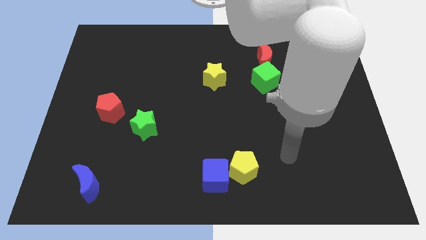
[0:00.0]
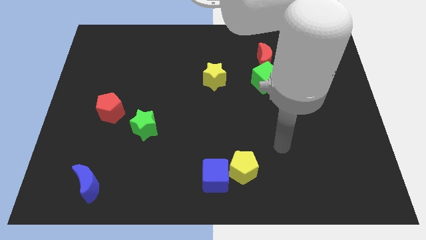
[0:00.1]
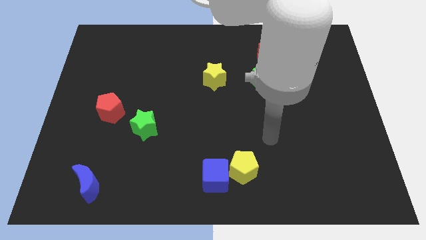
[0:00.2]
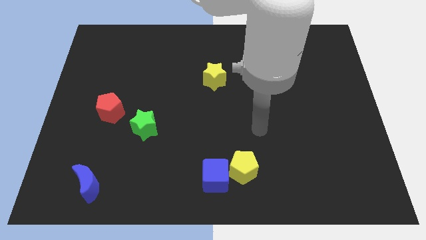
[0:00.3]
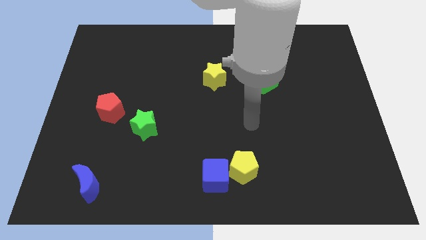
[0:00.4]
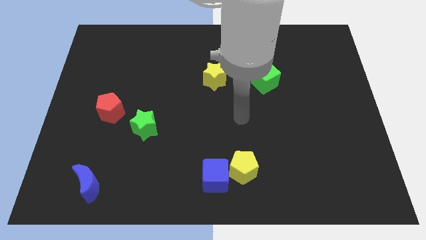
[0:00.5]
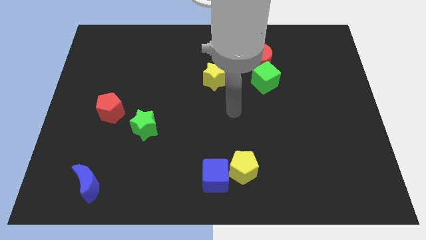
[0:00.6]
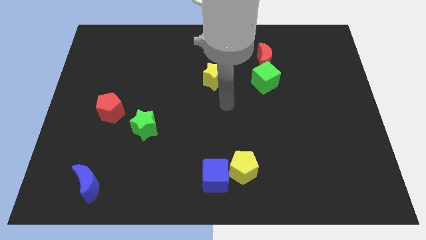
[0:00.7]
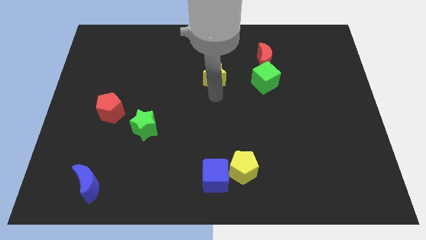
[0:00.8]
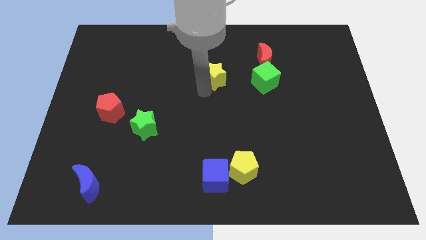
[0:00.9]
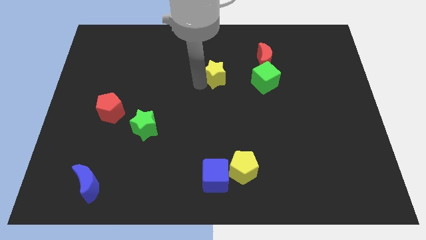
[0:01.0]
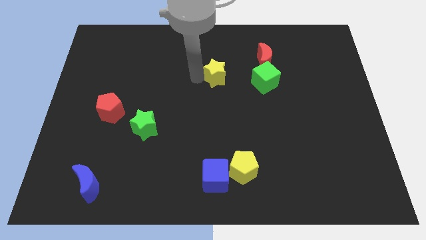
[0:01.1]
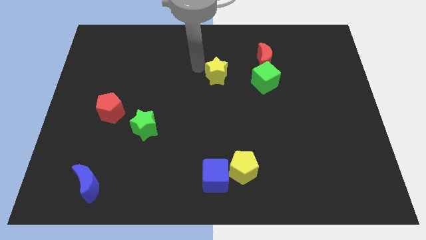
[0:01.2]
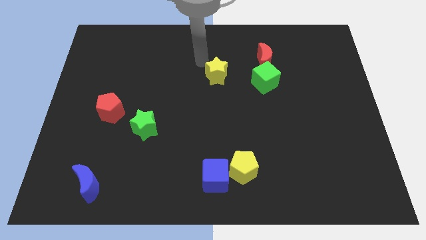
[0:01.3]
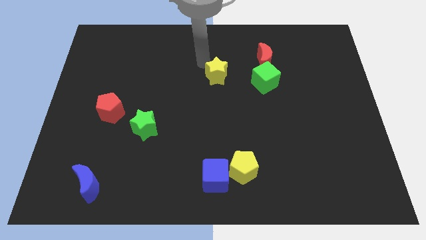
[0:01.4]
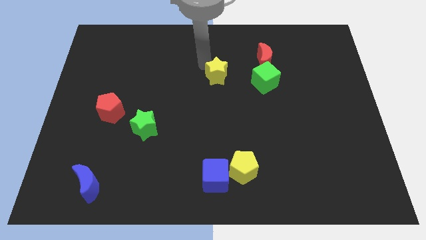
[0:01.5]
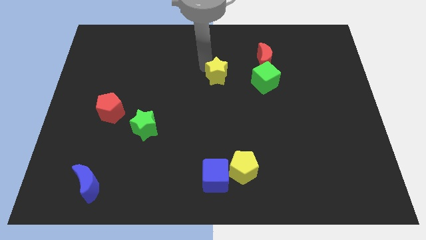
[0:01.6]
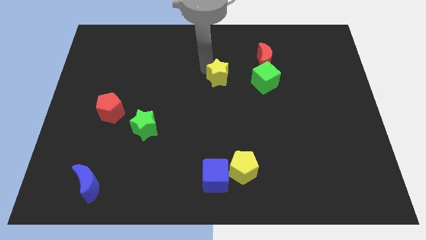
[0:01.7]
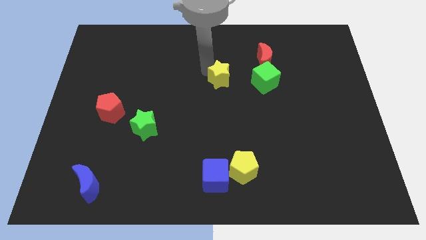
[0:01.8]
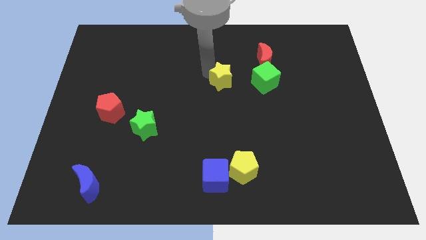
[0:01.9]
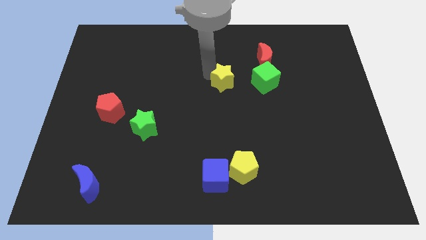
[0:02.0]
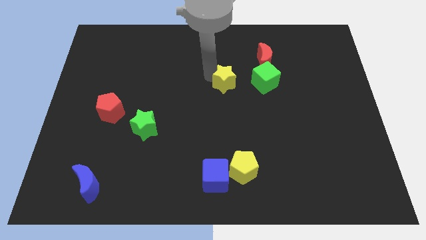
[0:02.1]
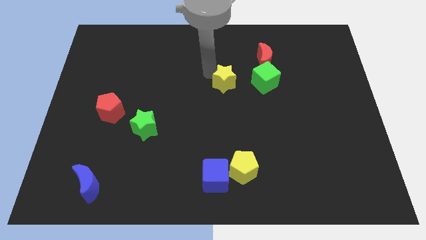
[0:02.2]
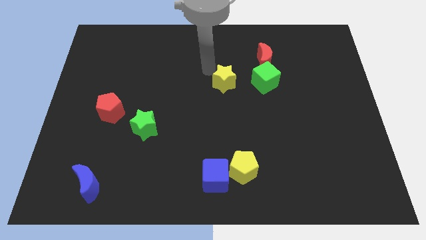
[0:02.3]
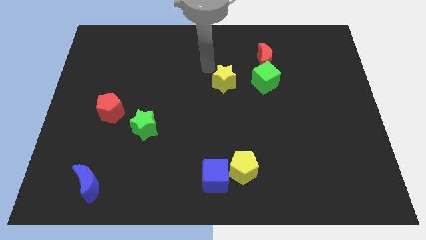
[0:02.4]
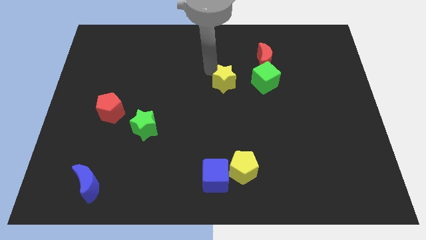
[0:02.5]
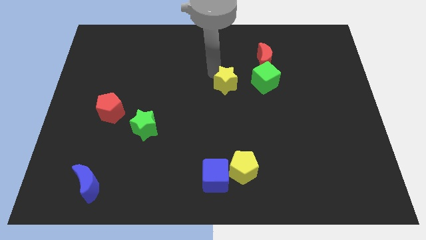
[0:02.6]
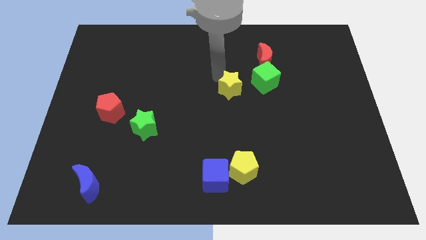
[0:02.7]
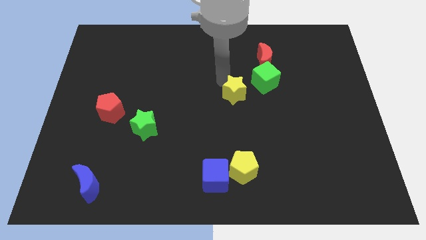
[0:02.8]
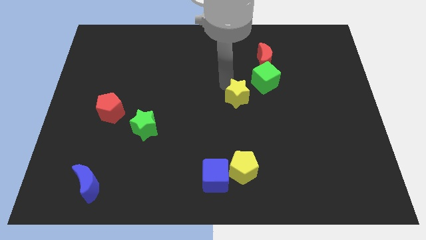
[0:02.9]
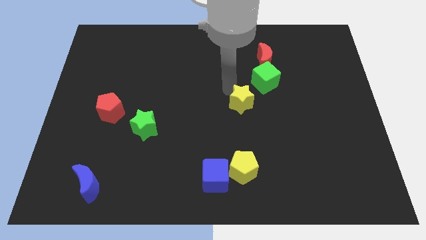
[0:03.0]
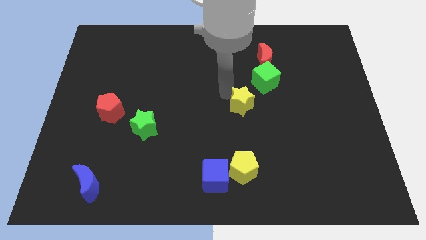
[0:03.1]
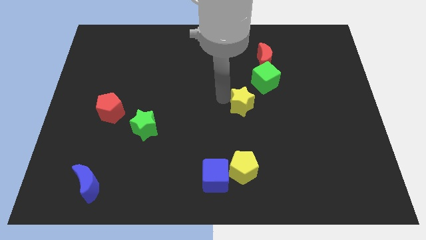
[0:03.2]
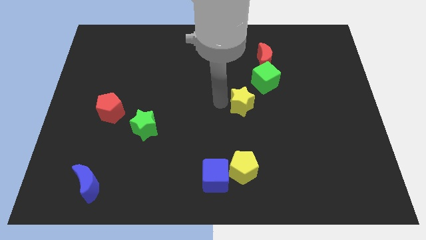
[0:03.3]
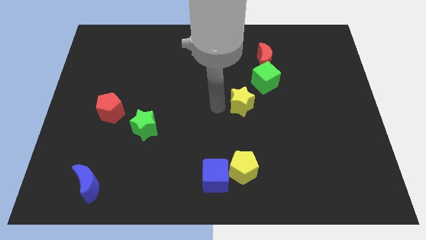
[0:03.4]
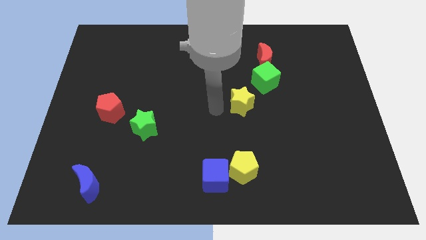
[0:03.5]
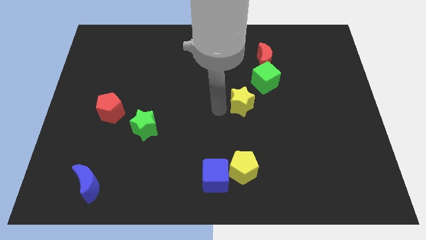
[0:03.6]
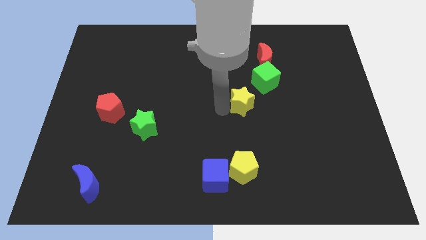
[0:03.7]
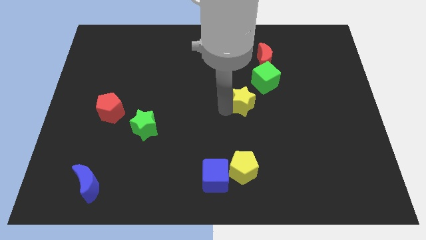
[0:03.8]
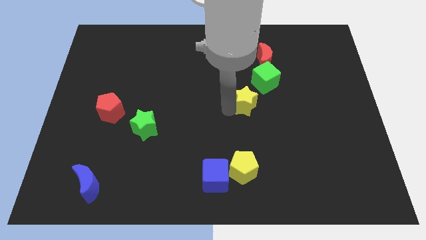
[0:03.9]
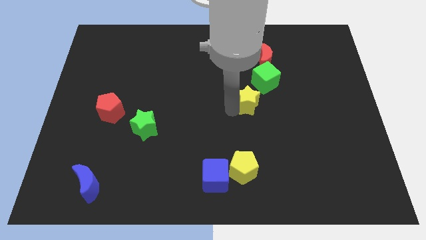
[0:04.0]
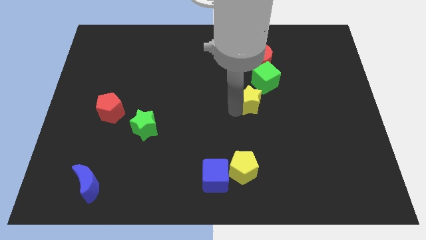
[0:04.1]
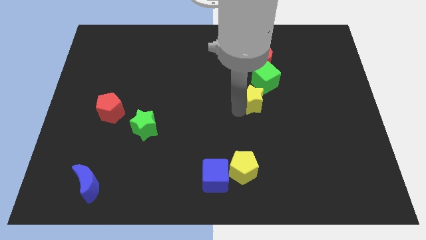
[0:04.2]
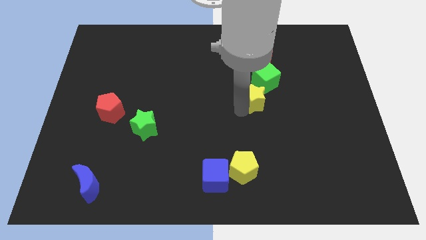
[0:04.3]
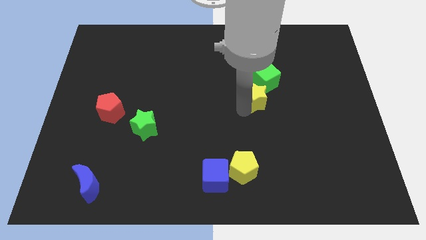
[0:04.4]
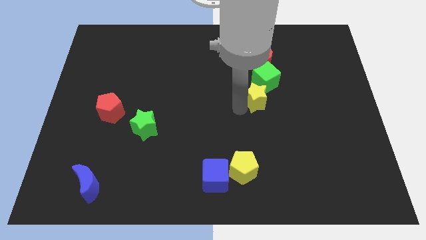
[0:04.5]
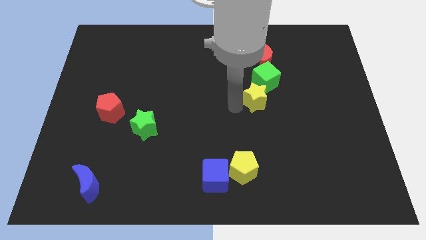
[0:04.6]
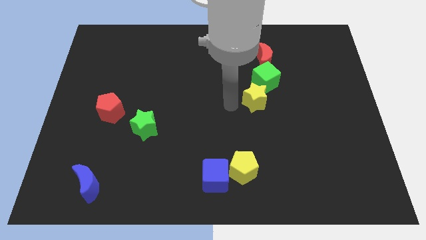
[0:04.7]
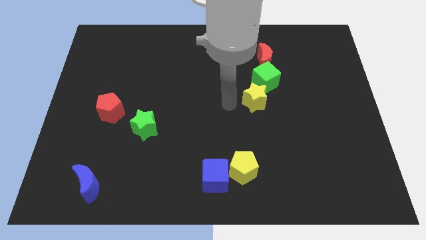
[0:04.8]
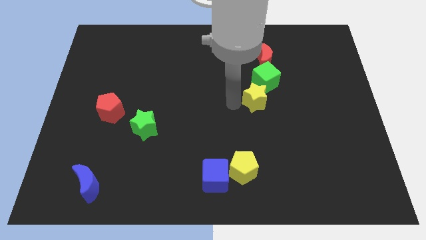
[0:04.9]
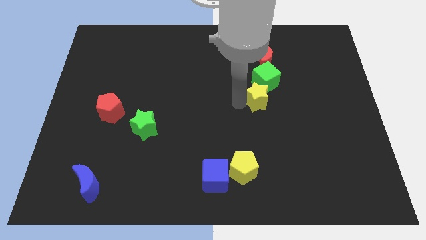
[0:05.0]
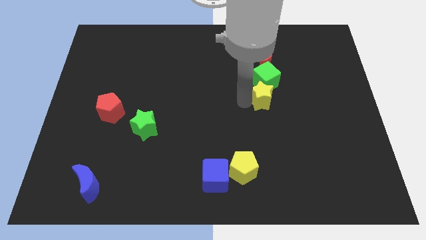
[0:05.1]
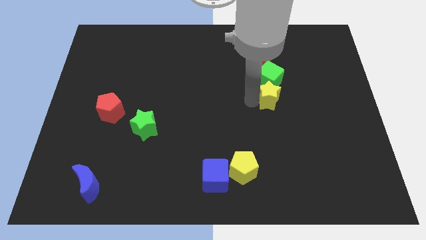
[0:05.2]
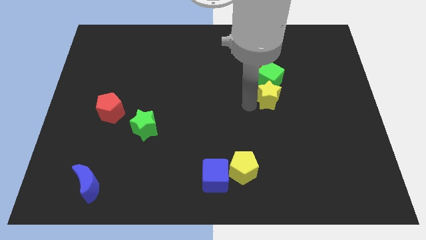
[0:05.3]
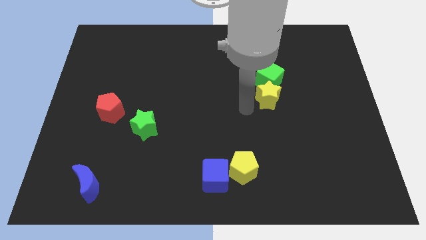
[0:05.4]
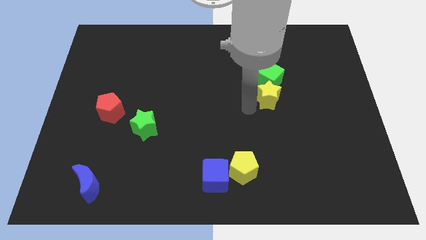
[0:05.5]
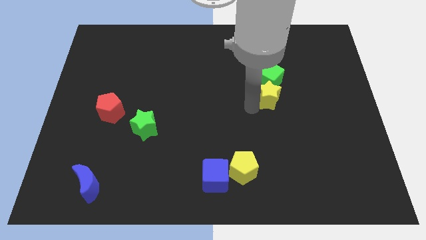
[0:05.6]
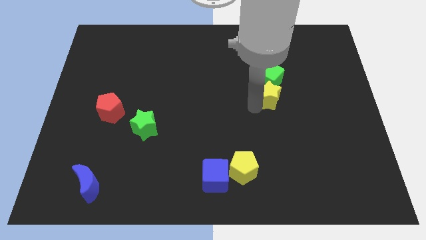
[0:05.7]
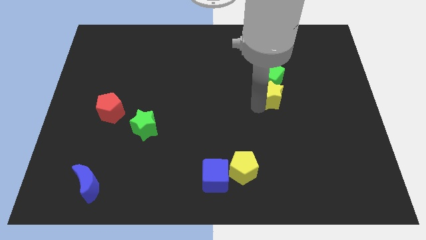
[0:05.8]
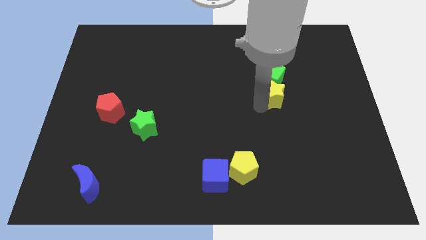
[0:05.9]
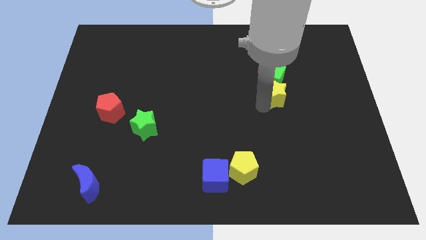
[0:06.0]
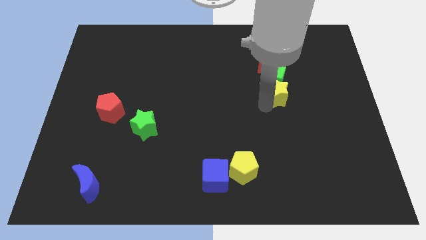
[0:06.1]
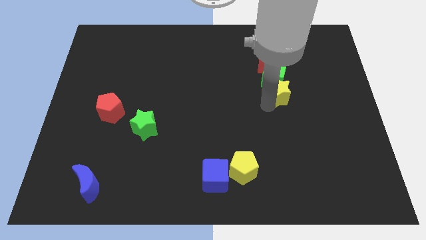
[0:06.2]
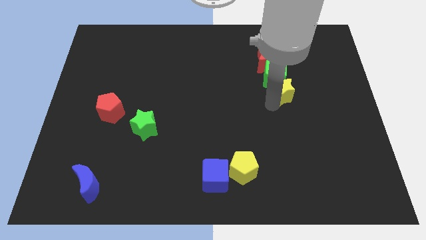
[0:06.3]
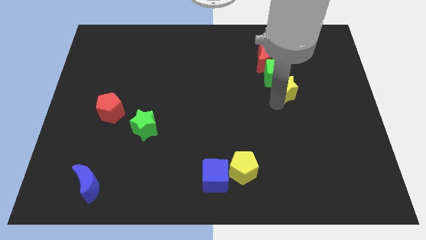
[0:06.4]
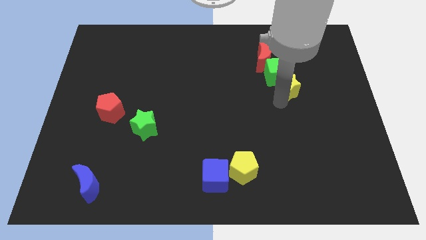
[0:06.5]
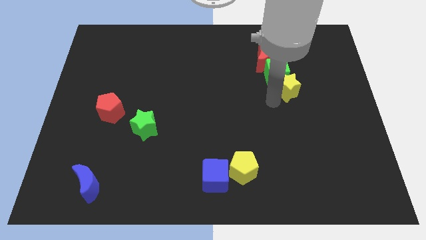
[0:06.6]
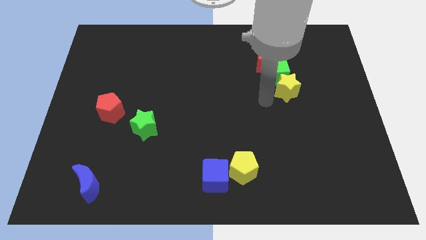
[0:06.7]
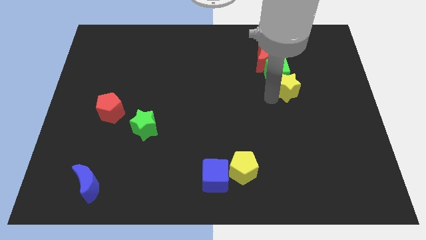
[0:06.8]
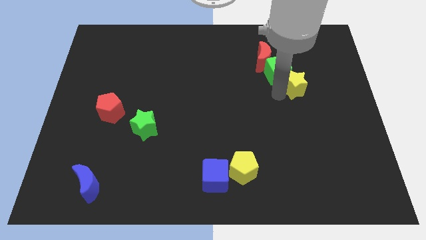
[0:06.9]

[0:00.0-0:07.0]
put the yellow star just right of the green cube
